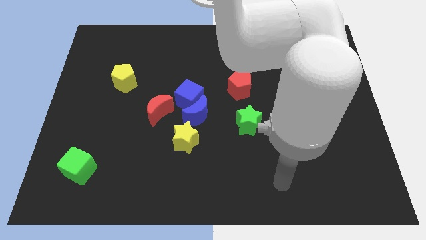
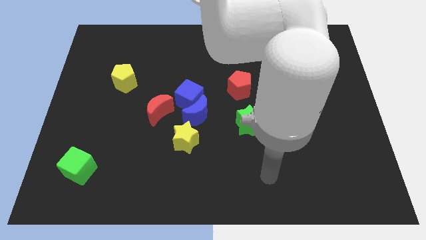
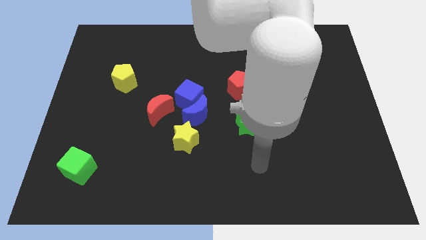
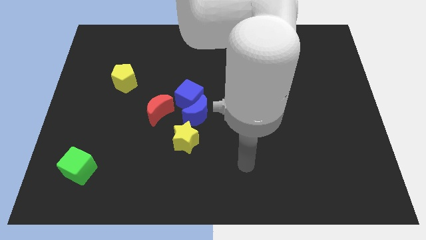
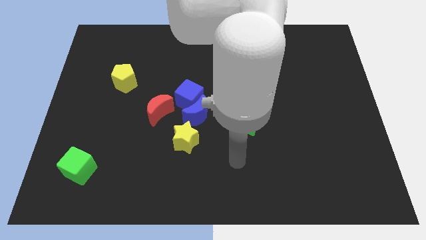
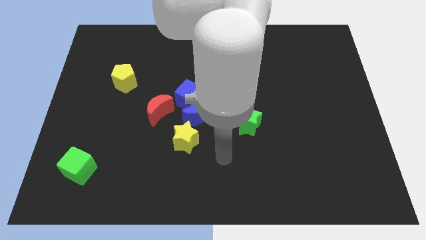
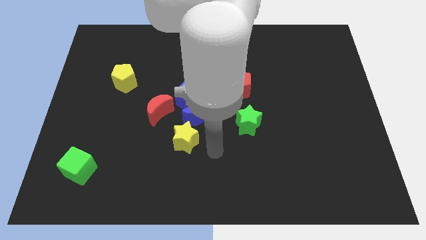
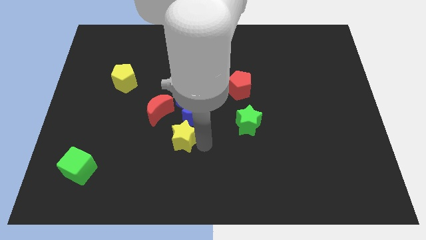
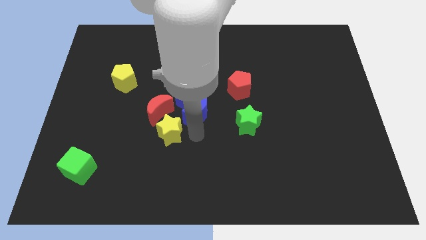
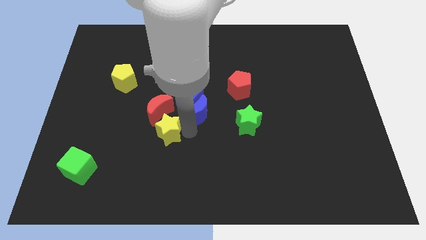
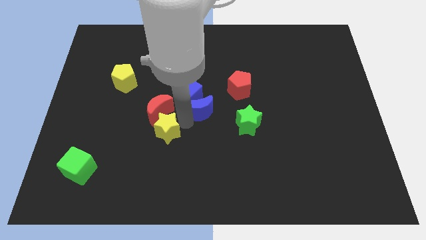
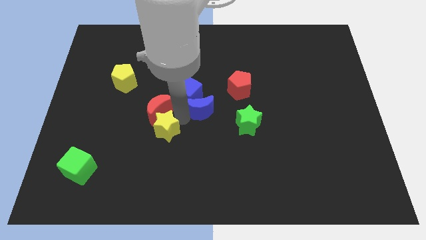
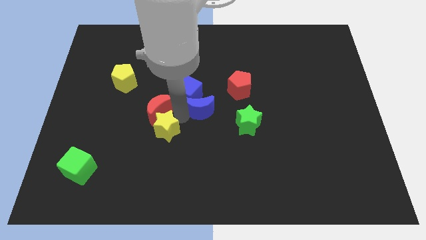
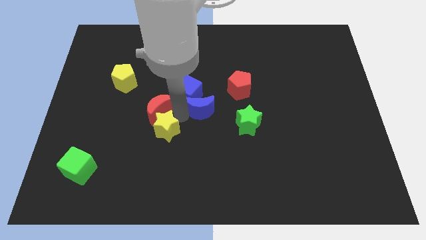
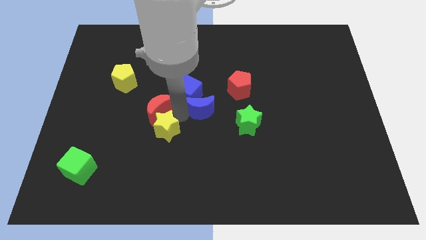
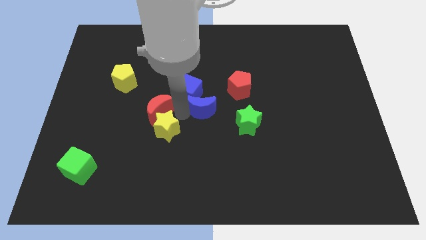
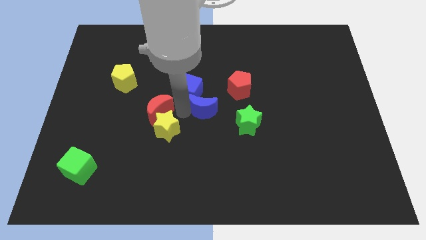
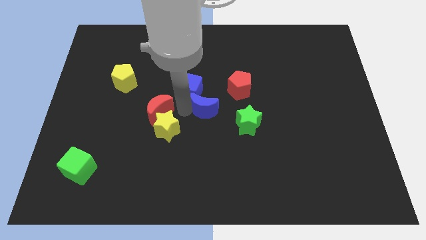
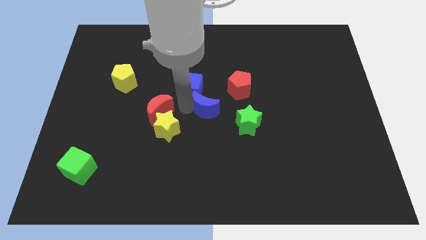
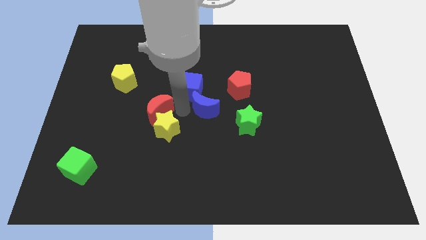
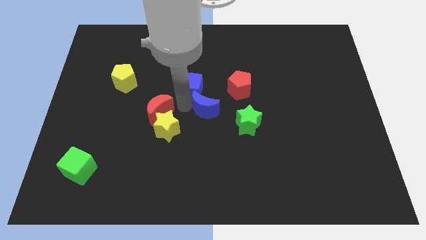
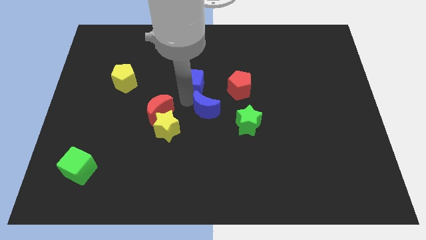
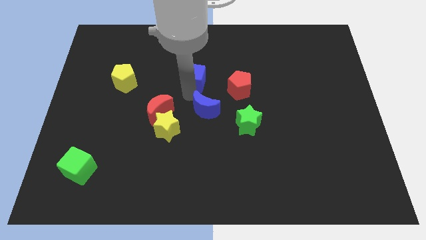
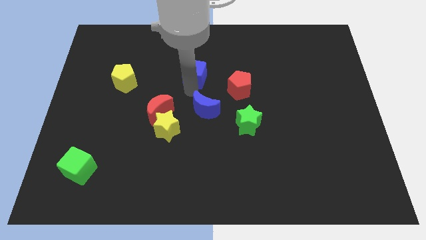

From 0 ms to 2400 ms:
pull the blue cube apart from the blue moon and red moon

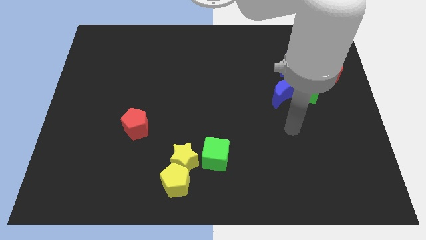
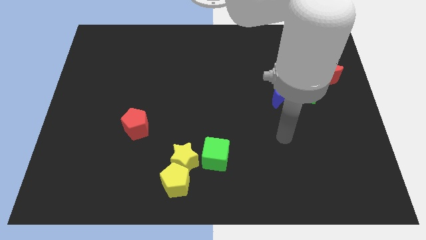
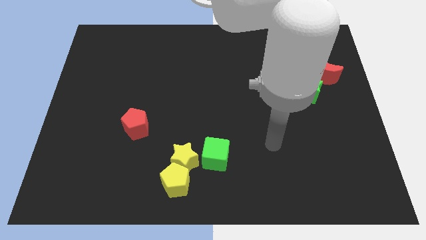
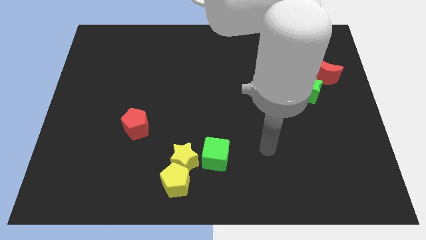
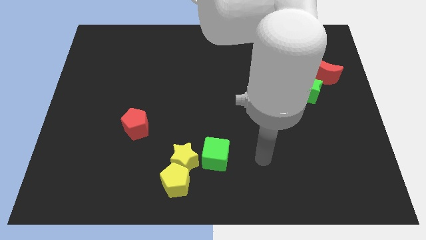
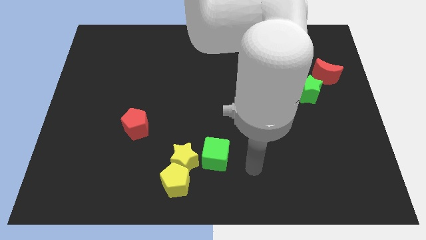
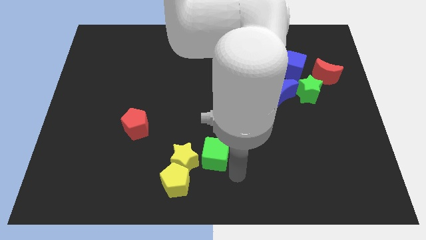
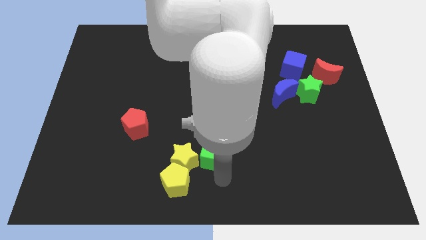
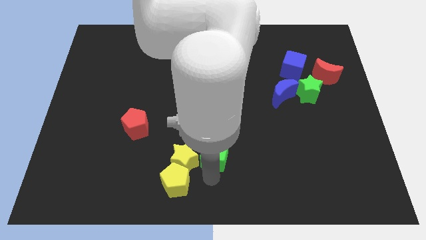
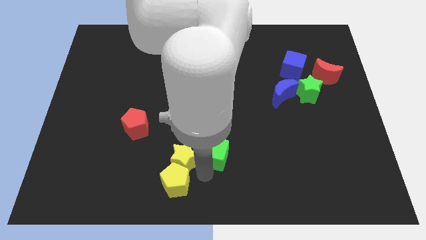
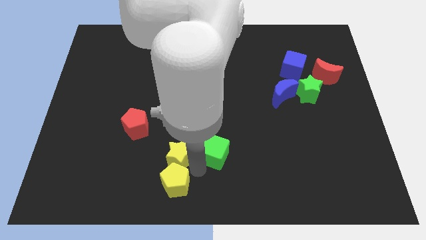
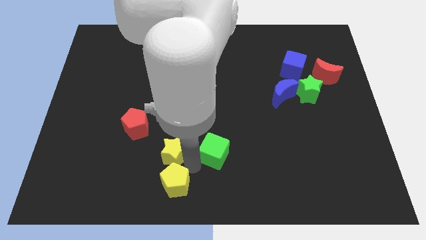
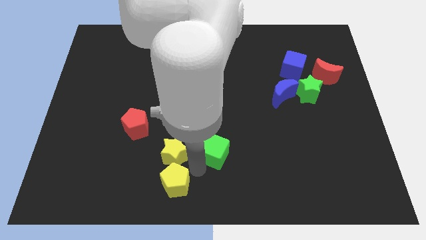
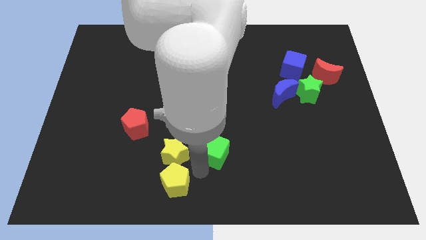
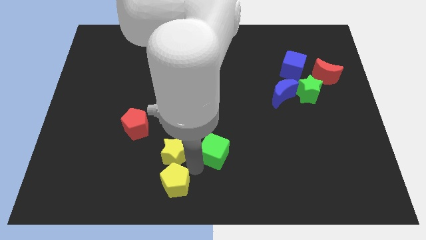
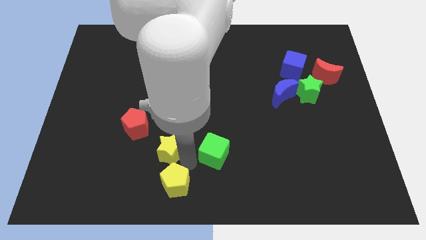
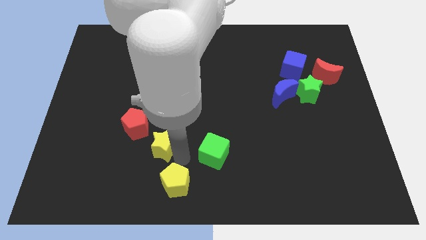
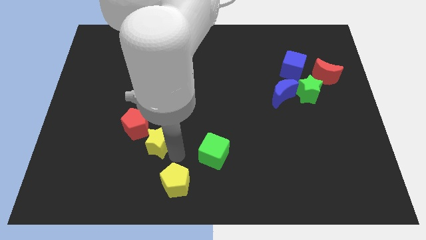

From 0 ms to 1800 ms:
pull the yellow star apart from the yellow pentagon and green cube

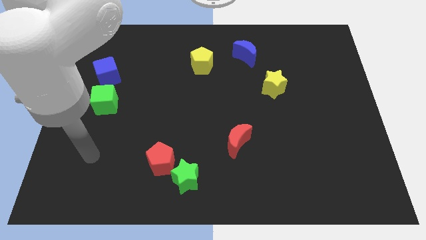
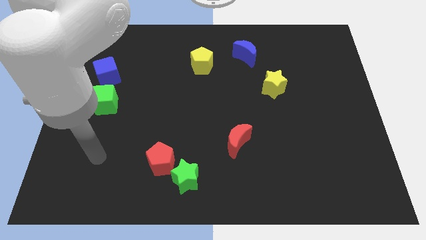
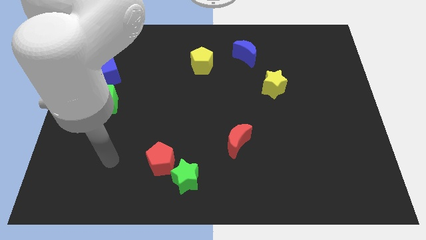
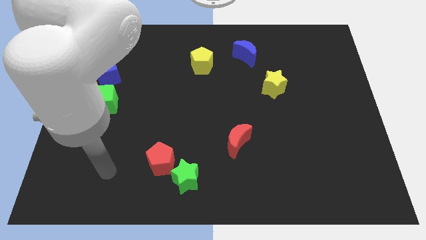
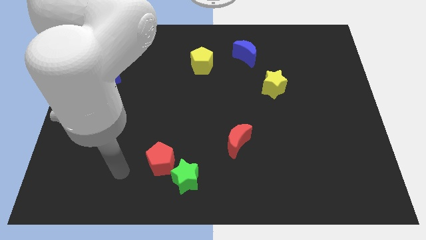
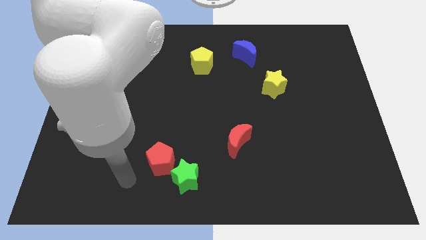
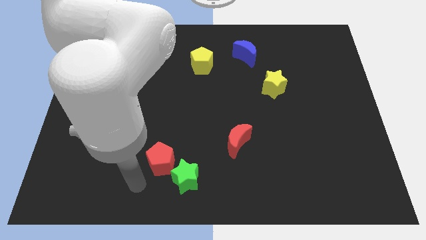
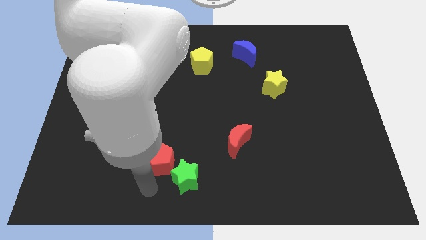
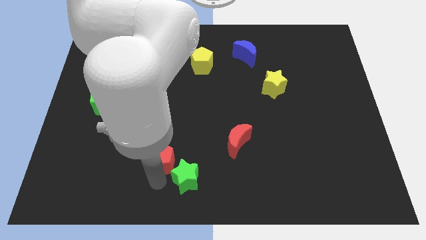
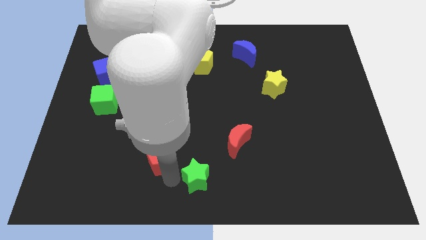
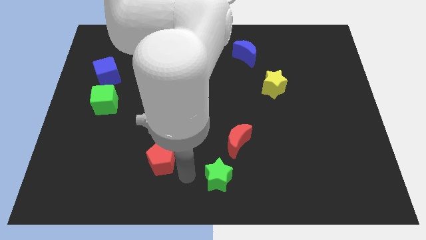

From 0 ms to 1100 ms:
move the red pentagon away from the green star

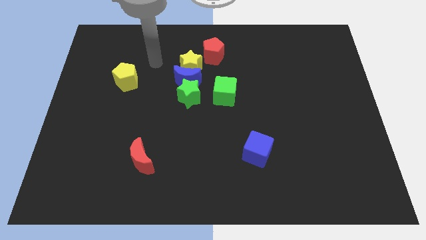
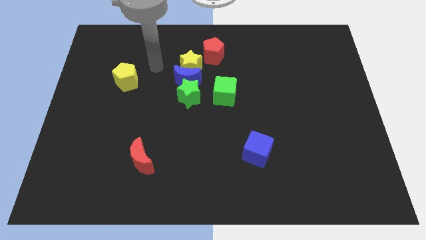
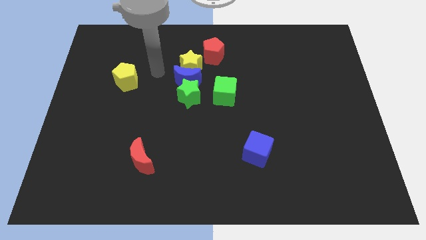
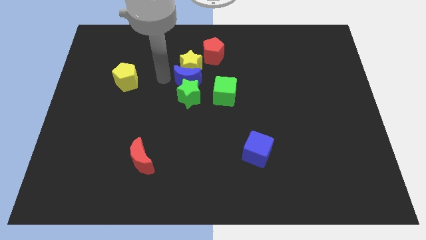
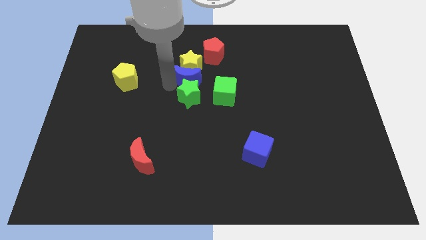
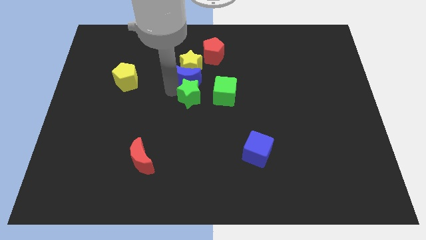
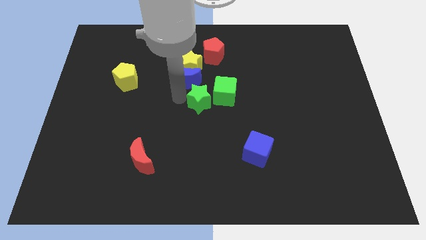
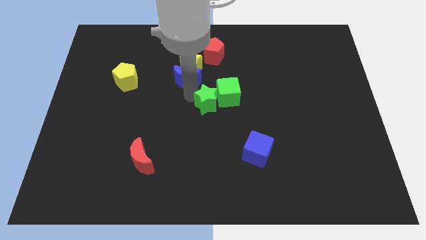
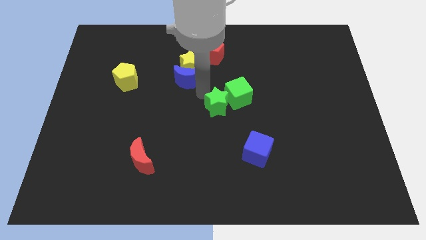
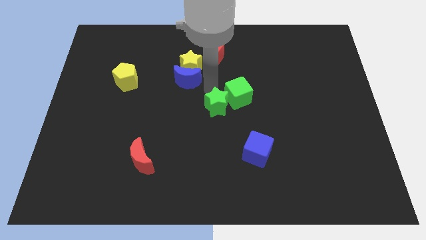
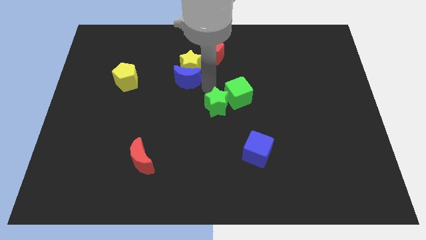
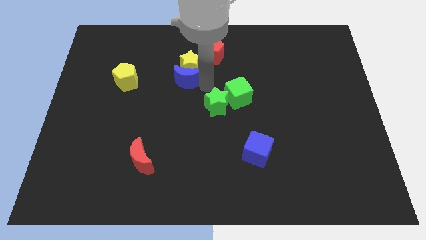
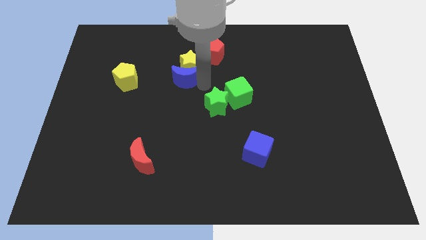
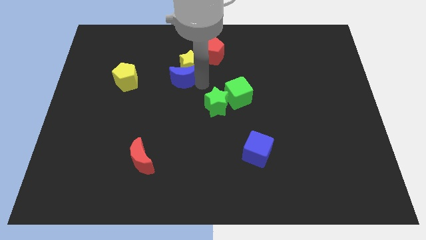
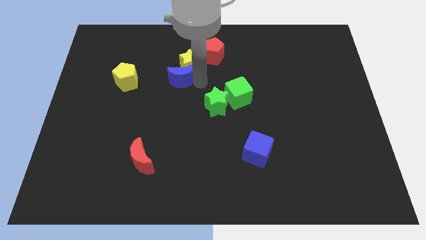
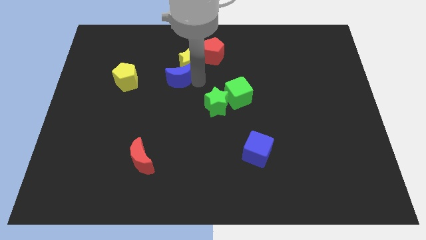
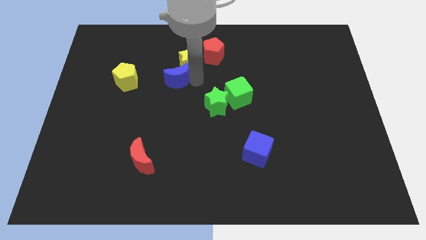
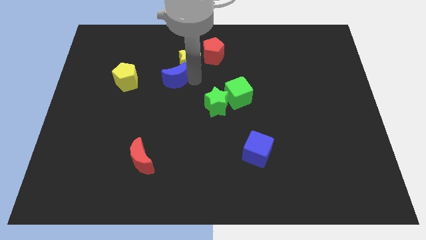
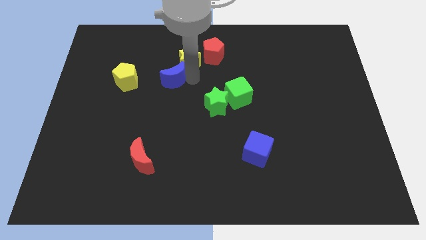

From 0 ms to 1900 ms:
move the blue moon away from the group

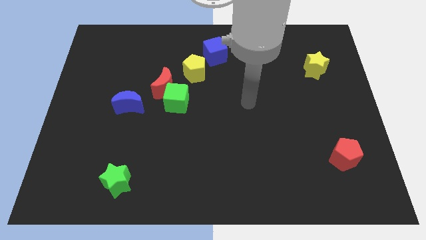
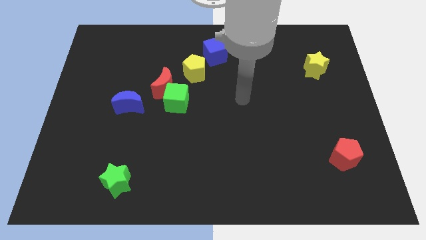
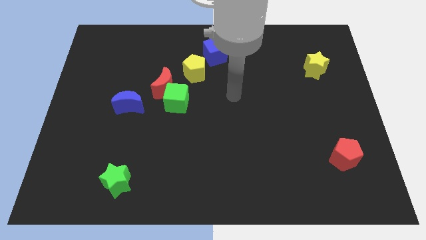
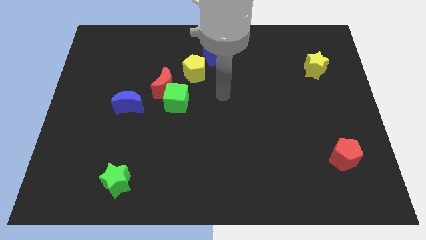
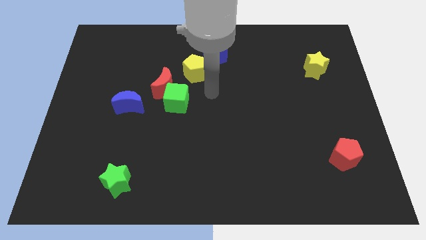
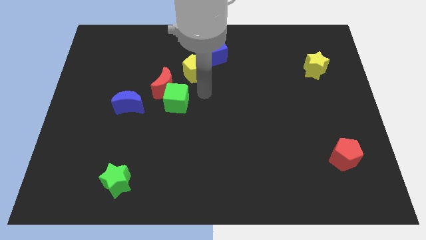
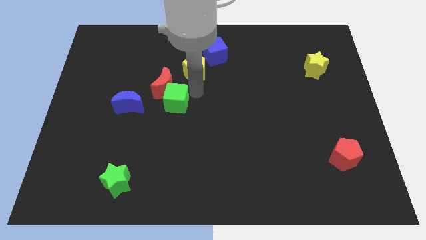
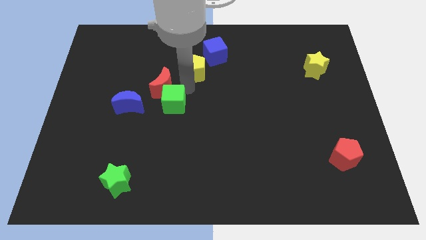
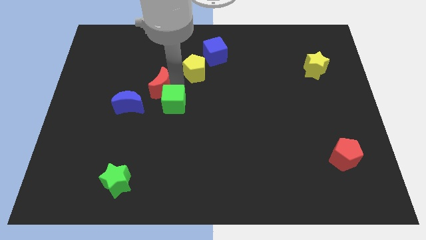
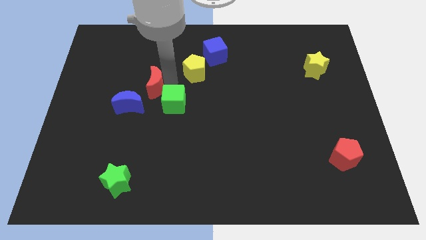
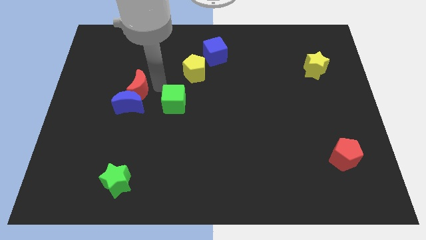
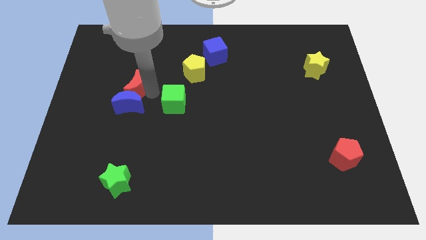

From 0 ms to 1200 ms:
pull the green cube apart from the red moon

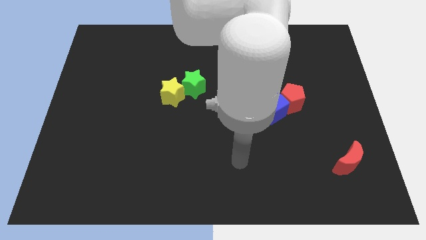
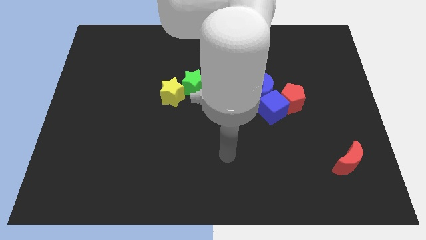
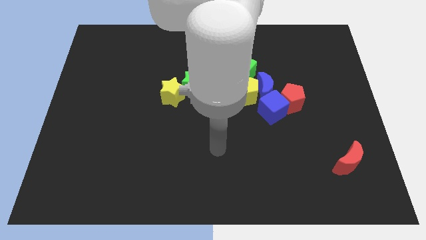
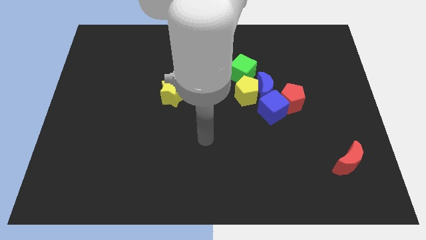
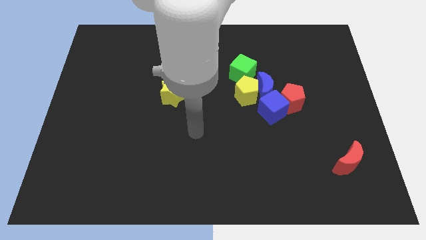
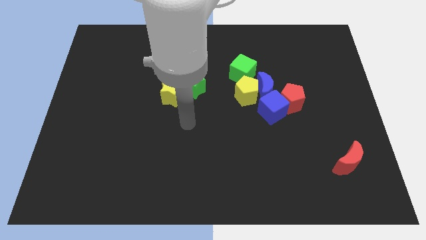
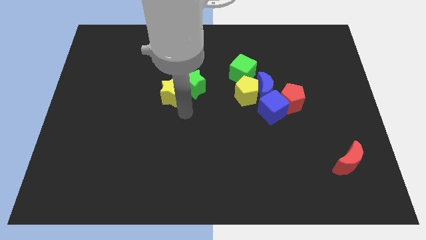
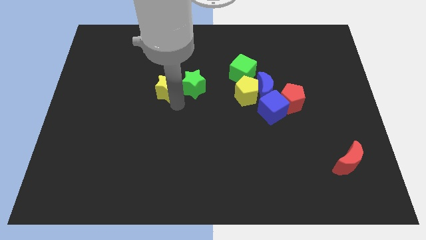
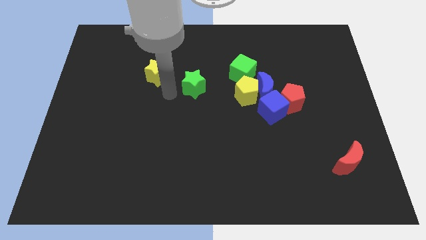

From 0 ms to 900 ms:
pull the green star apart from the yellow star
